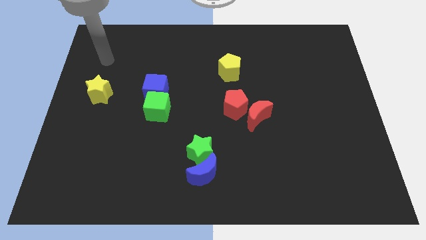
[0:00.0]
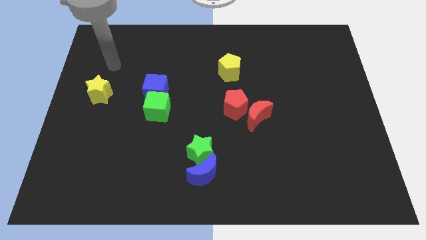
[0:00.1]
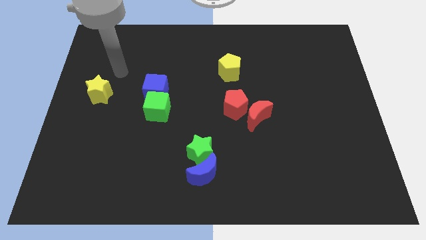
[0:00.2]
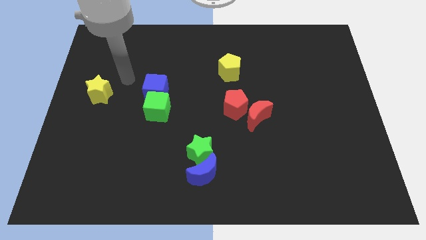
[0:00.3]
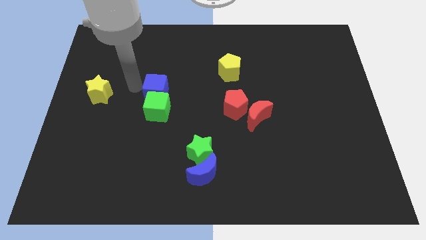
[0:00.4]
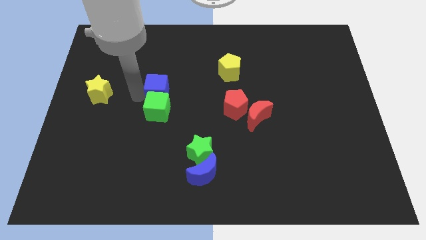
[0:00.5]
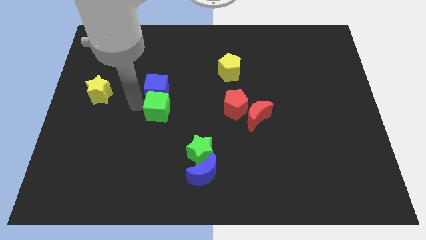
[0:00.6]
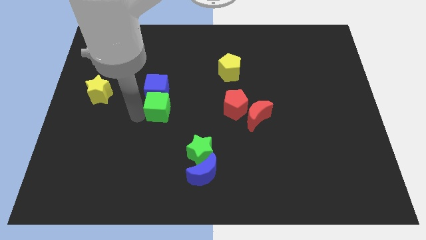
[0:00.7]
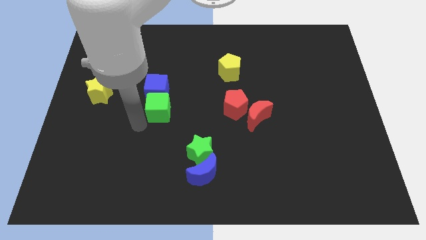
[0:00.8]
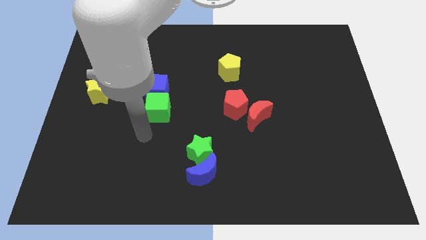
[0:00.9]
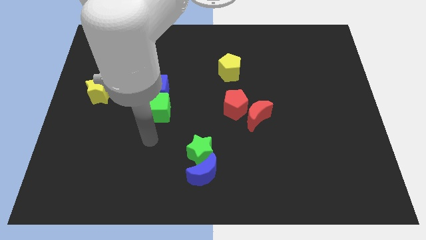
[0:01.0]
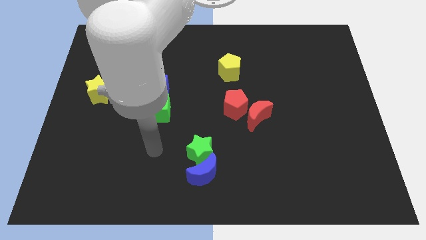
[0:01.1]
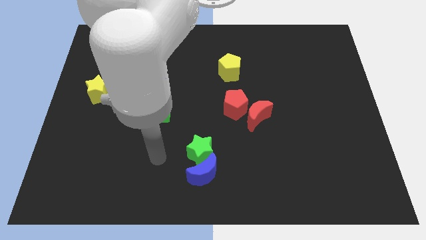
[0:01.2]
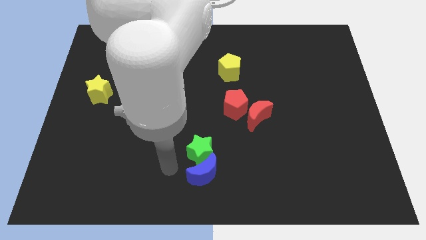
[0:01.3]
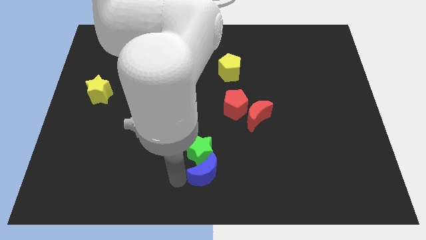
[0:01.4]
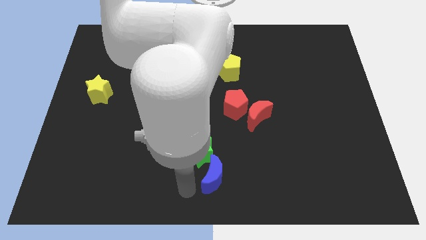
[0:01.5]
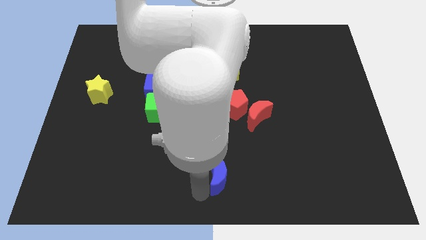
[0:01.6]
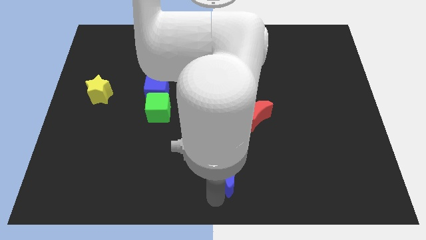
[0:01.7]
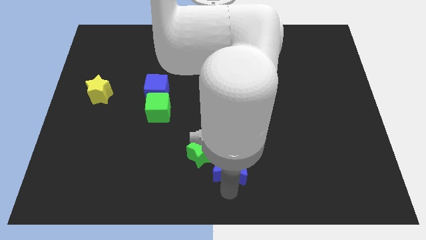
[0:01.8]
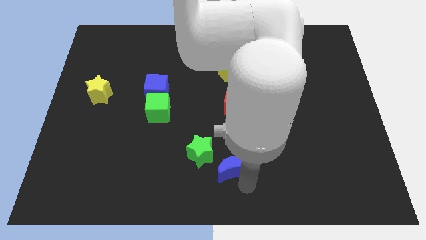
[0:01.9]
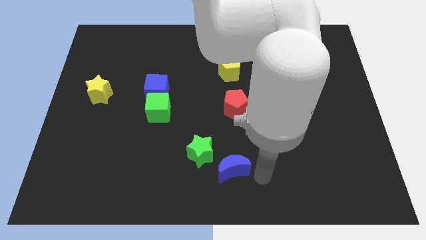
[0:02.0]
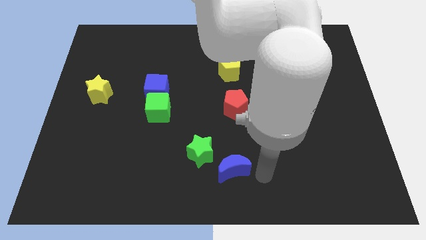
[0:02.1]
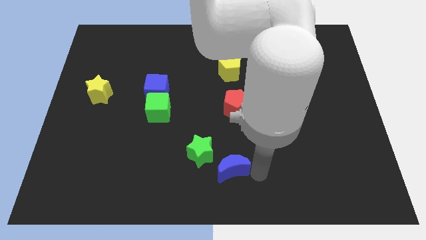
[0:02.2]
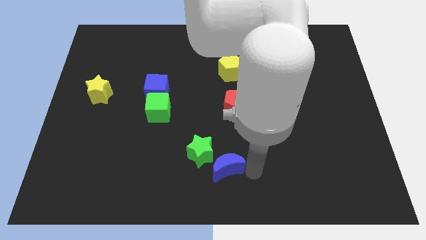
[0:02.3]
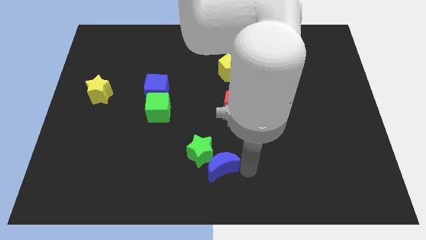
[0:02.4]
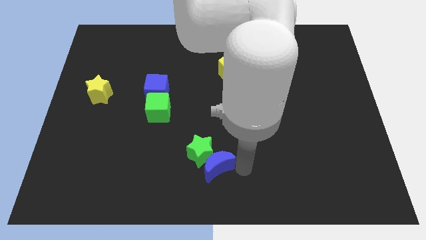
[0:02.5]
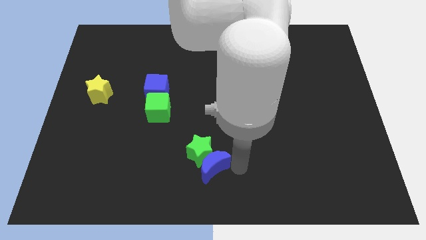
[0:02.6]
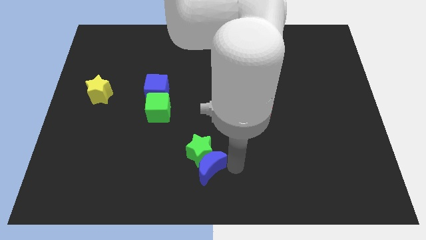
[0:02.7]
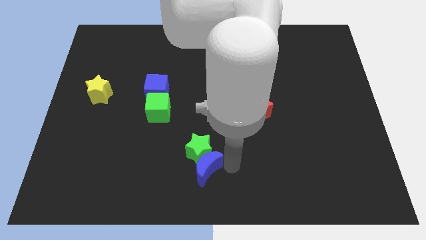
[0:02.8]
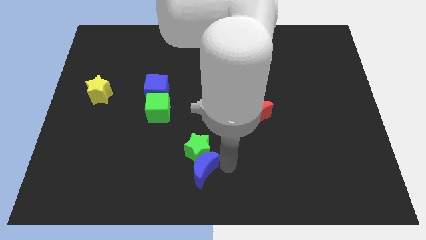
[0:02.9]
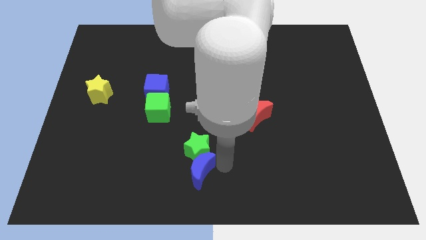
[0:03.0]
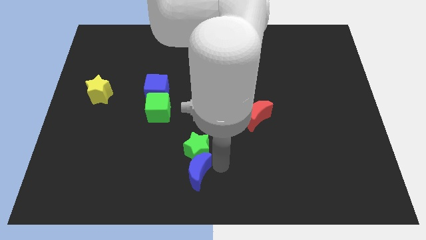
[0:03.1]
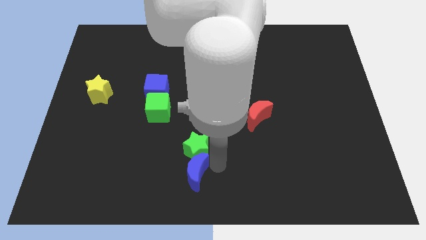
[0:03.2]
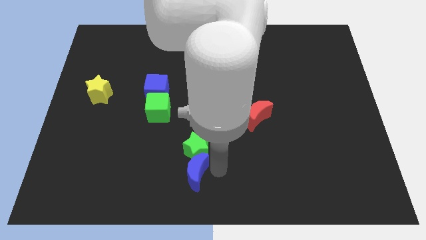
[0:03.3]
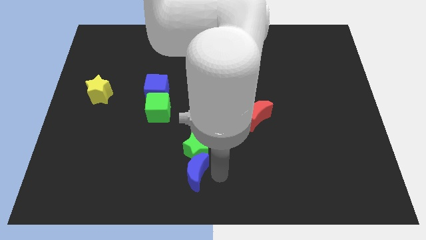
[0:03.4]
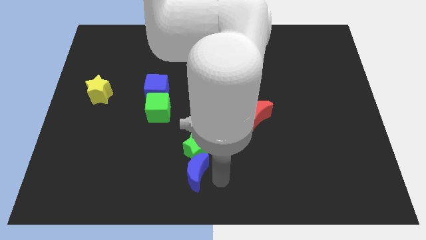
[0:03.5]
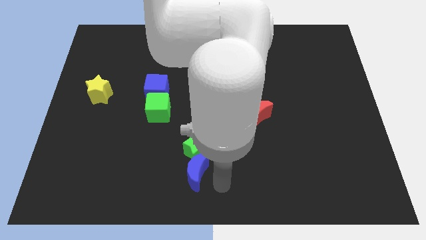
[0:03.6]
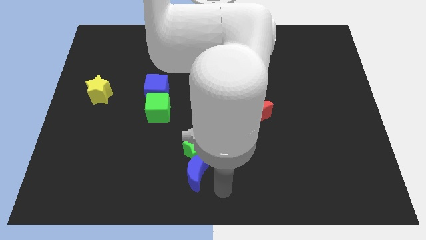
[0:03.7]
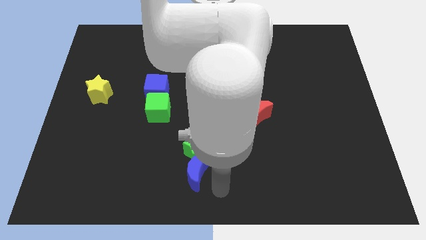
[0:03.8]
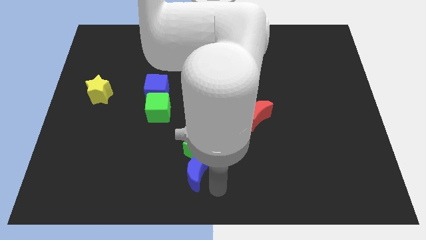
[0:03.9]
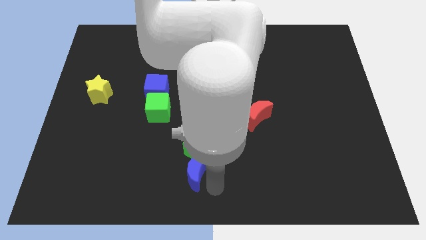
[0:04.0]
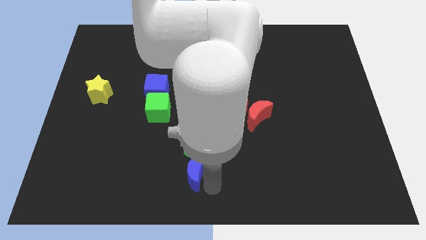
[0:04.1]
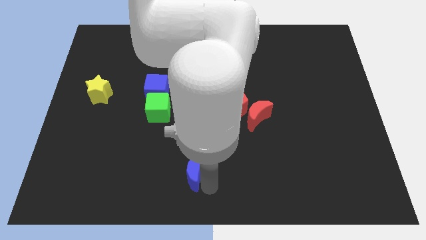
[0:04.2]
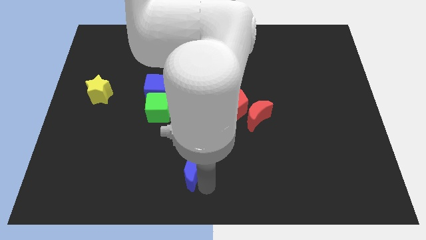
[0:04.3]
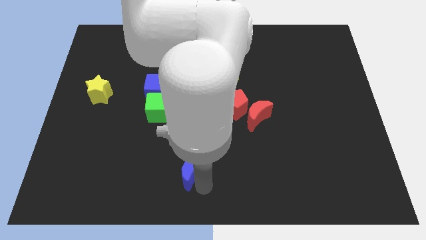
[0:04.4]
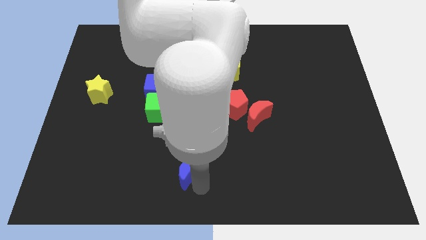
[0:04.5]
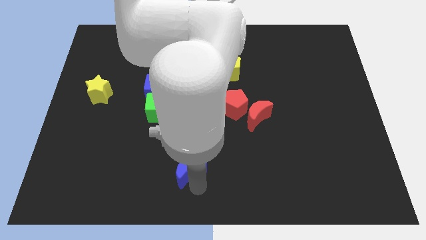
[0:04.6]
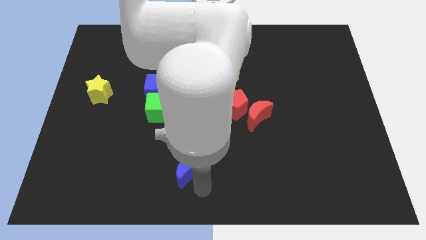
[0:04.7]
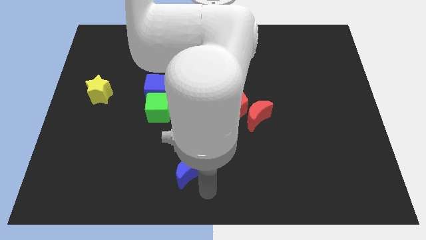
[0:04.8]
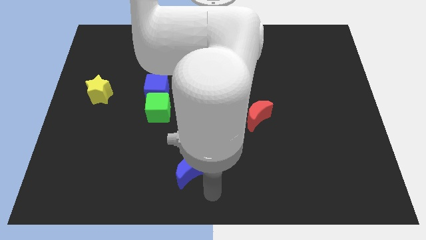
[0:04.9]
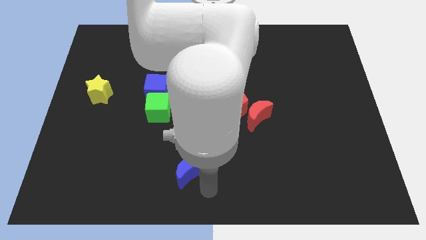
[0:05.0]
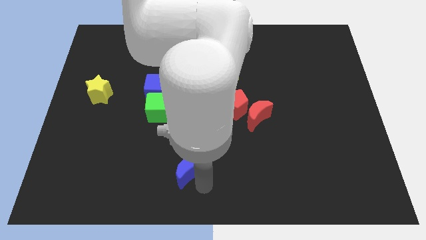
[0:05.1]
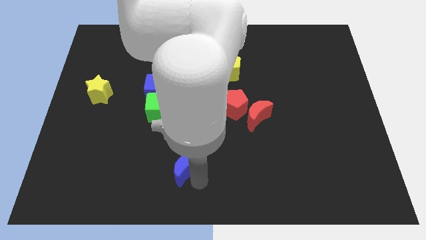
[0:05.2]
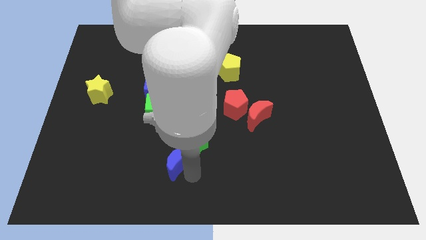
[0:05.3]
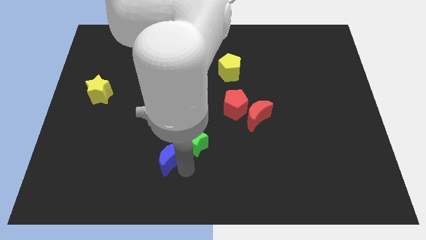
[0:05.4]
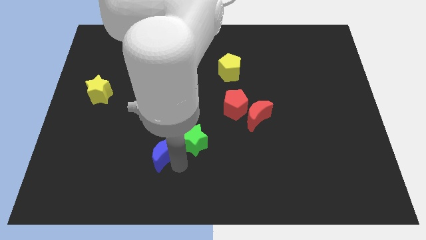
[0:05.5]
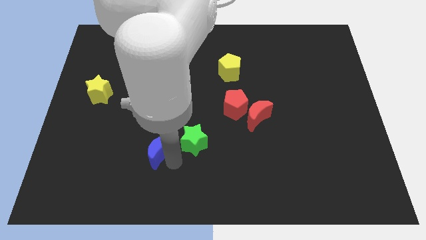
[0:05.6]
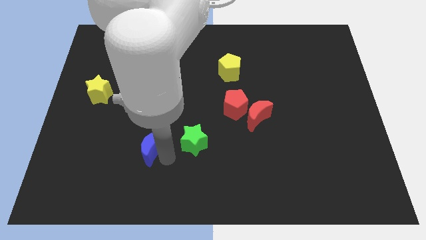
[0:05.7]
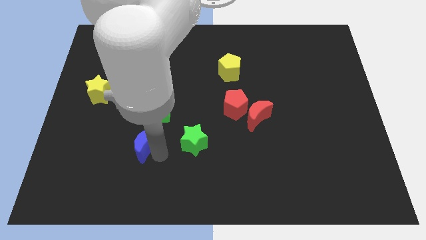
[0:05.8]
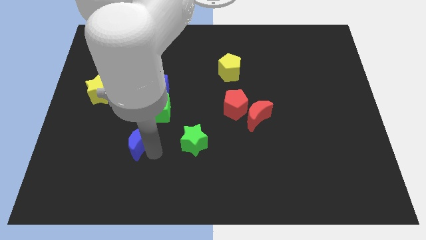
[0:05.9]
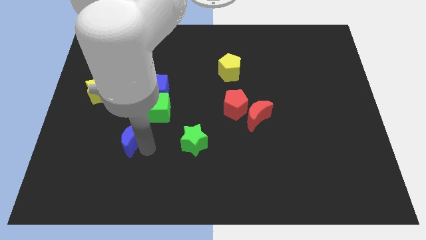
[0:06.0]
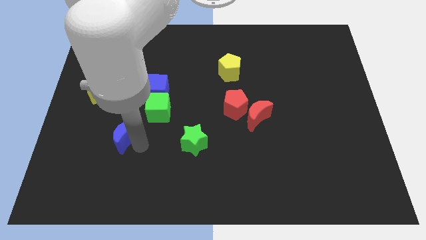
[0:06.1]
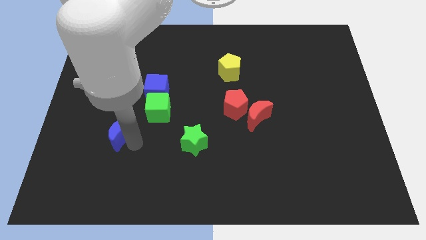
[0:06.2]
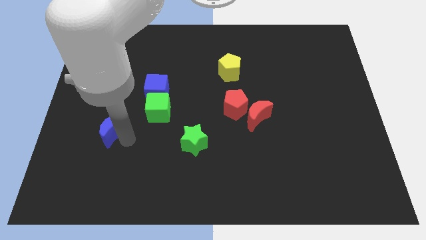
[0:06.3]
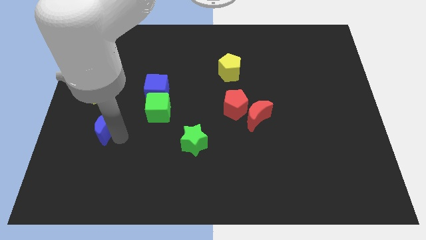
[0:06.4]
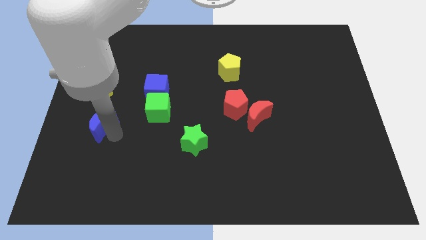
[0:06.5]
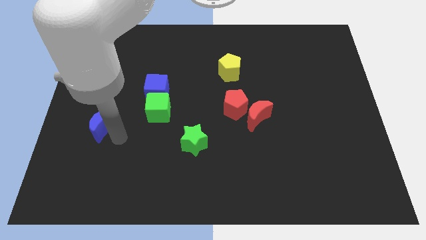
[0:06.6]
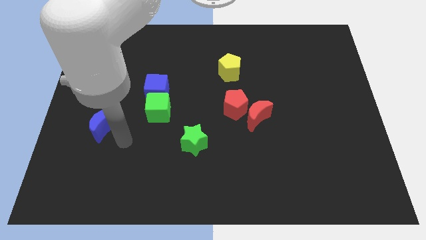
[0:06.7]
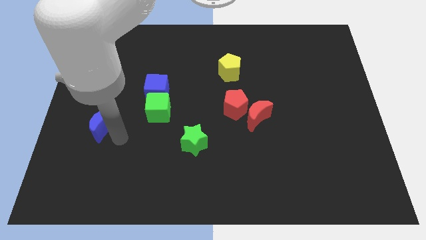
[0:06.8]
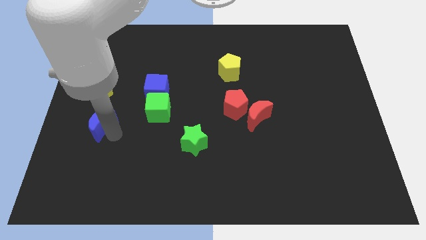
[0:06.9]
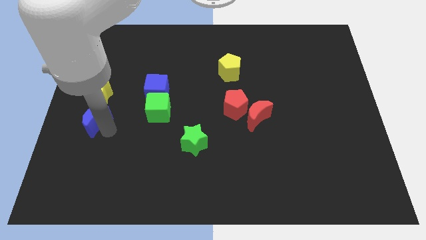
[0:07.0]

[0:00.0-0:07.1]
push the blue moon to the left side of the board
